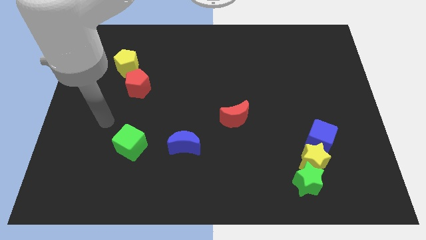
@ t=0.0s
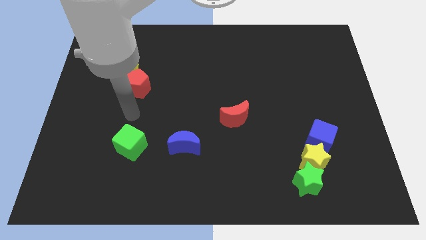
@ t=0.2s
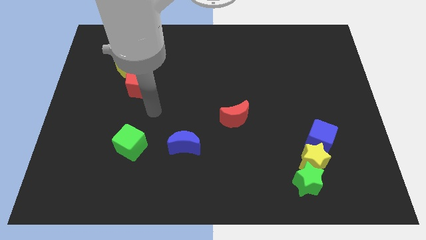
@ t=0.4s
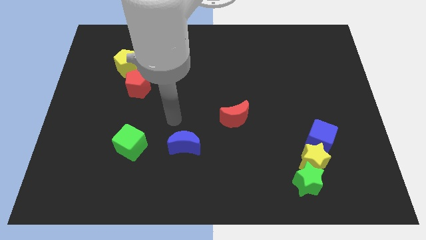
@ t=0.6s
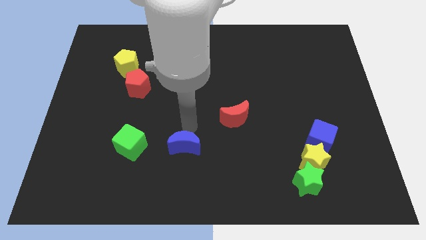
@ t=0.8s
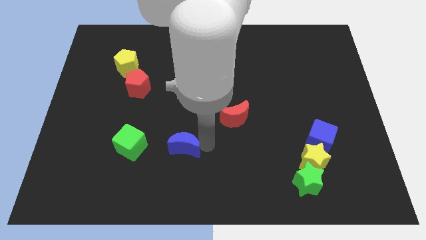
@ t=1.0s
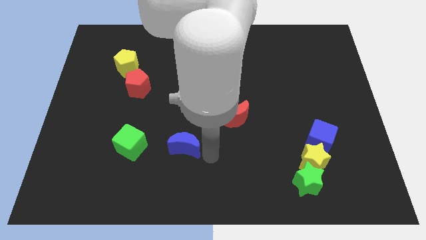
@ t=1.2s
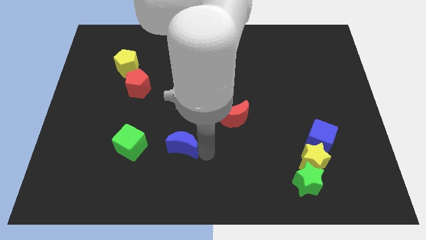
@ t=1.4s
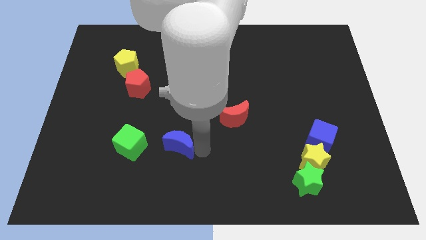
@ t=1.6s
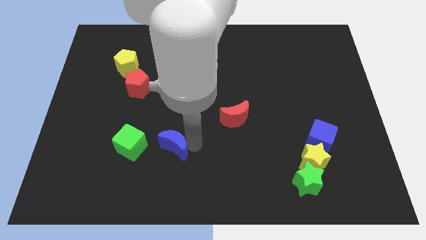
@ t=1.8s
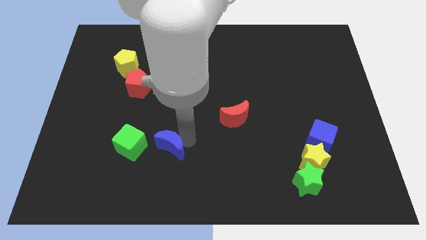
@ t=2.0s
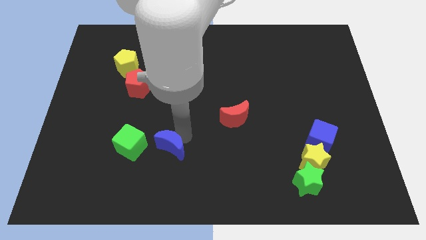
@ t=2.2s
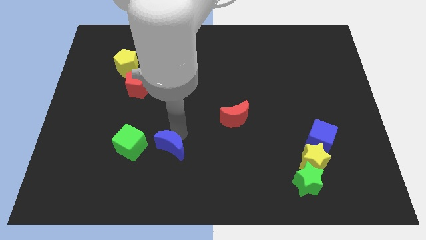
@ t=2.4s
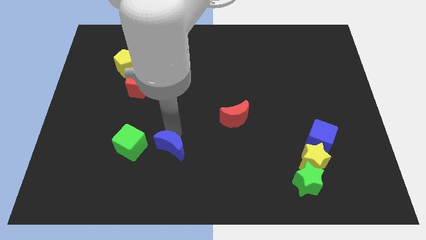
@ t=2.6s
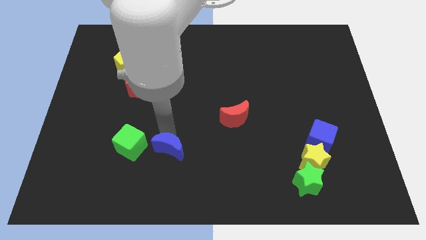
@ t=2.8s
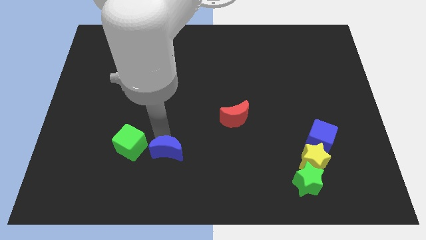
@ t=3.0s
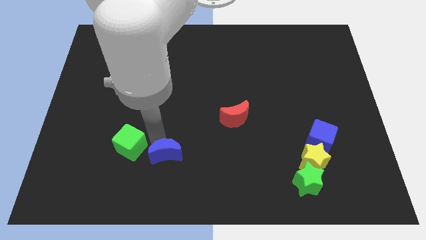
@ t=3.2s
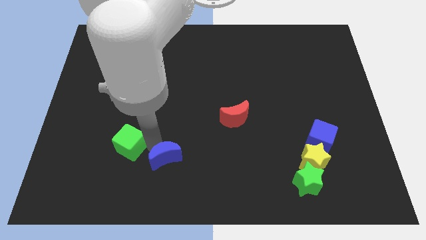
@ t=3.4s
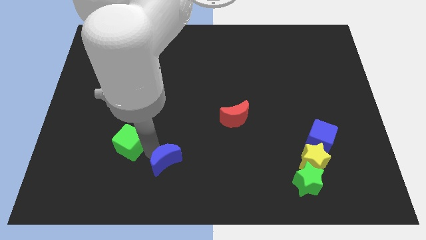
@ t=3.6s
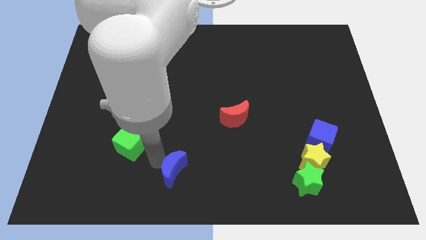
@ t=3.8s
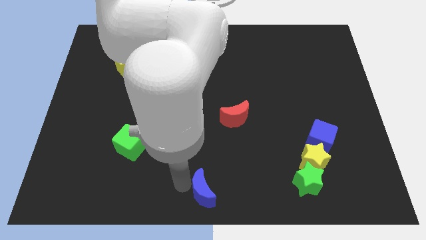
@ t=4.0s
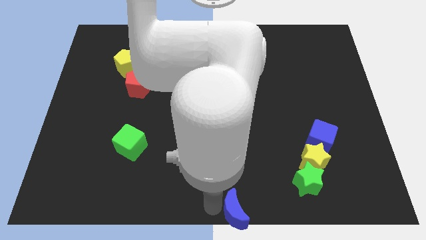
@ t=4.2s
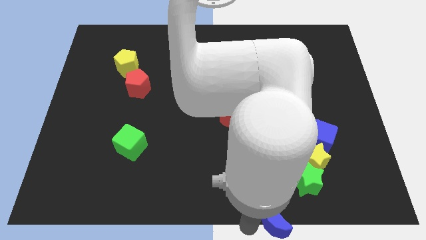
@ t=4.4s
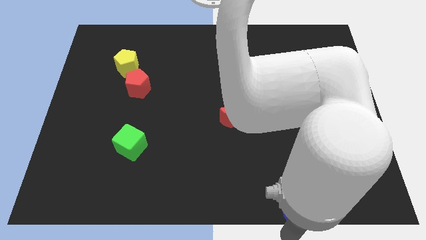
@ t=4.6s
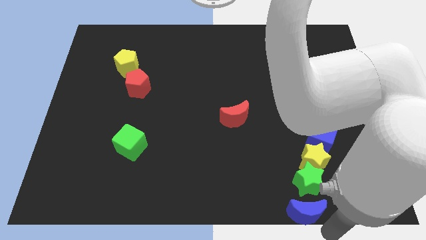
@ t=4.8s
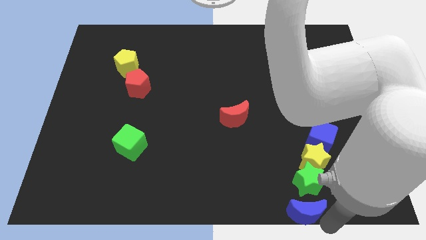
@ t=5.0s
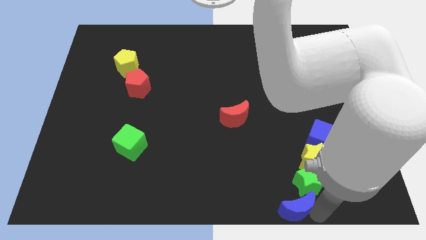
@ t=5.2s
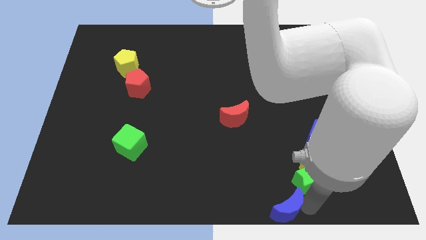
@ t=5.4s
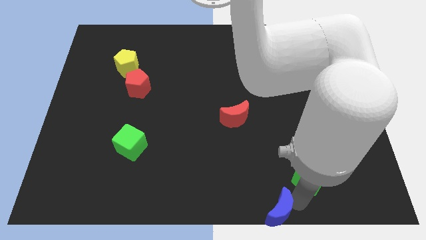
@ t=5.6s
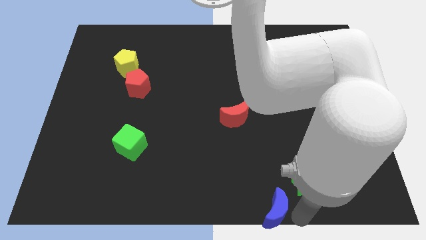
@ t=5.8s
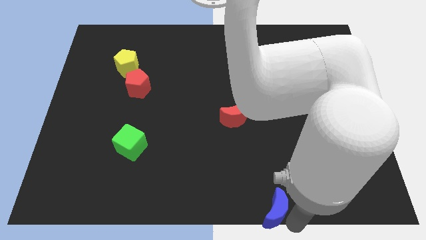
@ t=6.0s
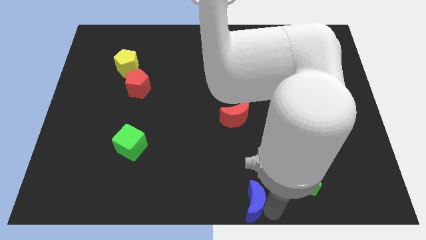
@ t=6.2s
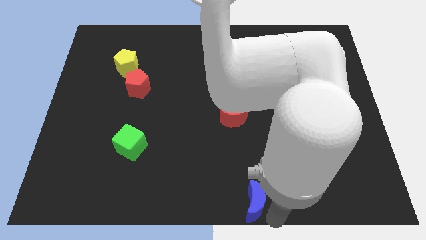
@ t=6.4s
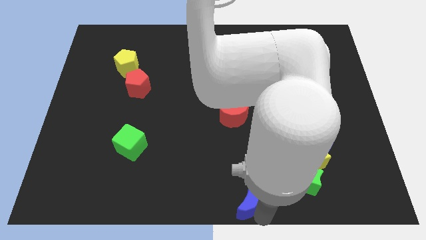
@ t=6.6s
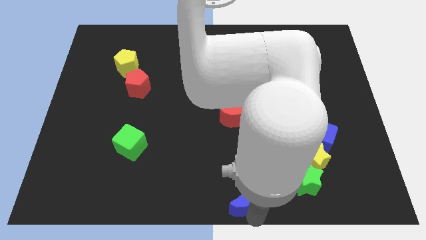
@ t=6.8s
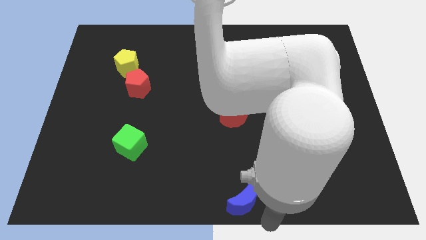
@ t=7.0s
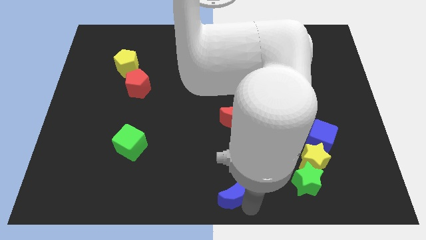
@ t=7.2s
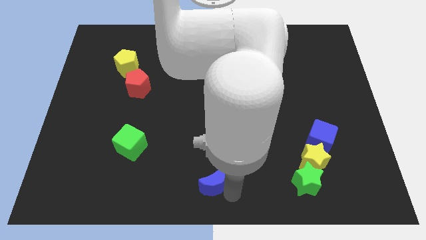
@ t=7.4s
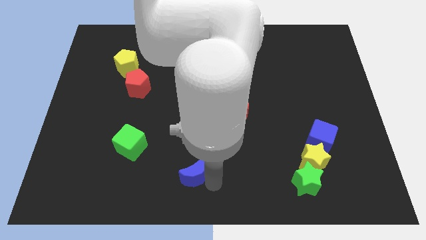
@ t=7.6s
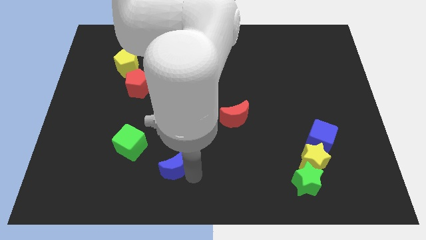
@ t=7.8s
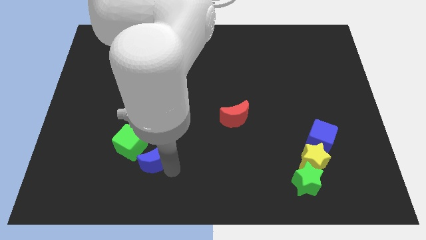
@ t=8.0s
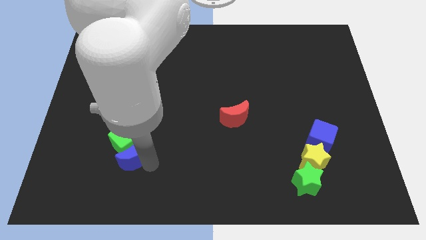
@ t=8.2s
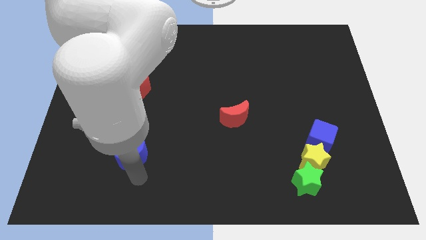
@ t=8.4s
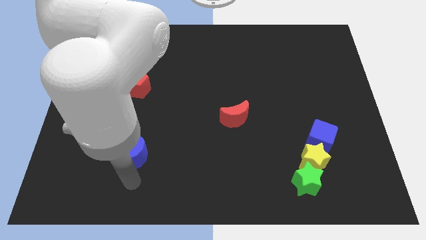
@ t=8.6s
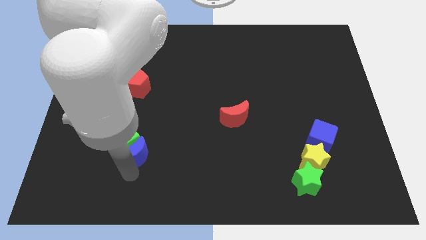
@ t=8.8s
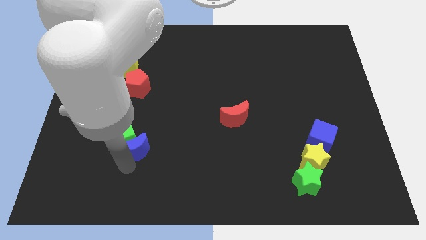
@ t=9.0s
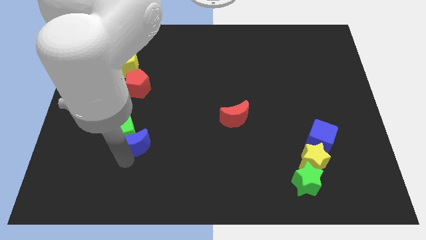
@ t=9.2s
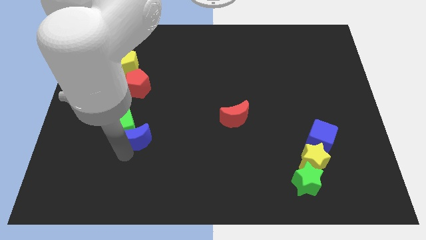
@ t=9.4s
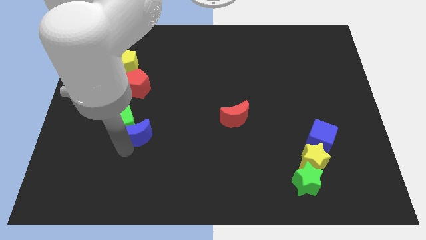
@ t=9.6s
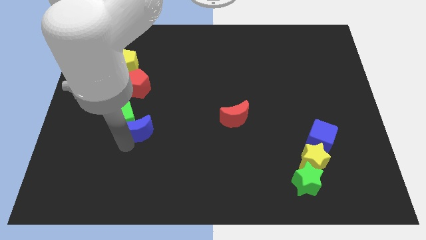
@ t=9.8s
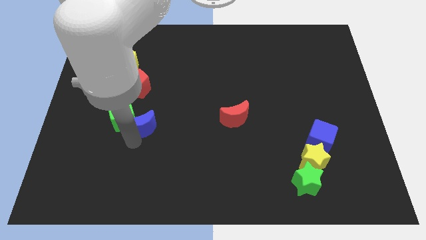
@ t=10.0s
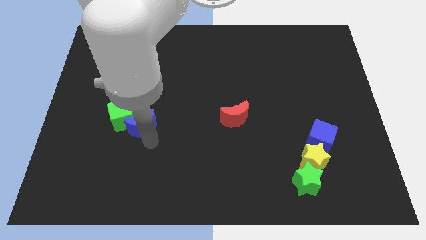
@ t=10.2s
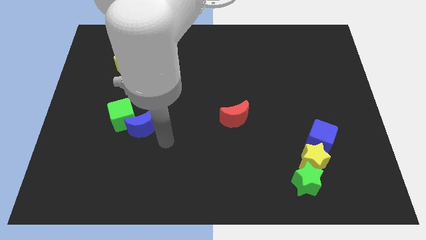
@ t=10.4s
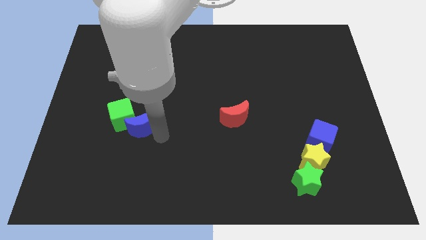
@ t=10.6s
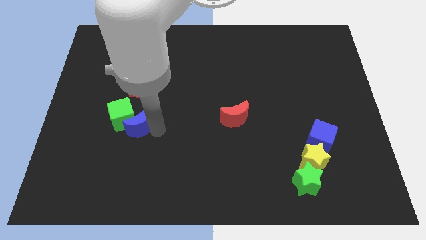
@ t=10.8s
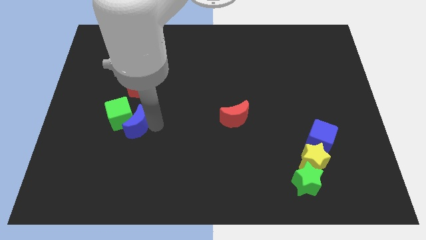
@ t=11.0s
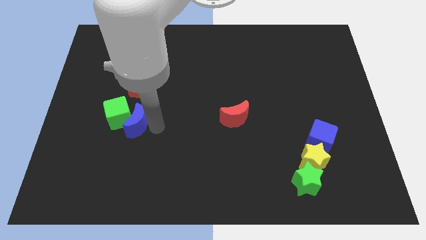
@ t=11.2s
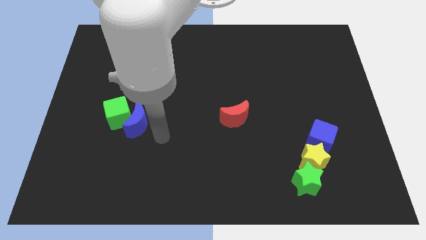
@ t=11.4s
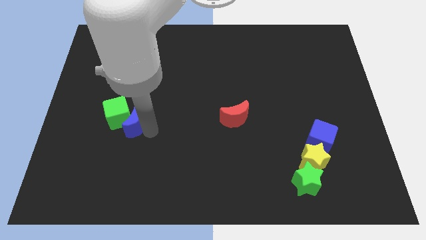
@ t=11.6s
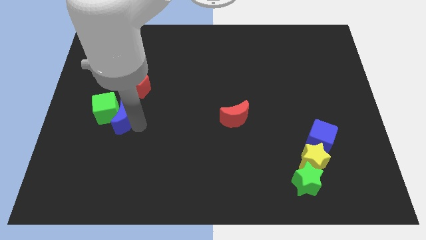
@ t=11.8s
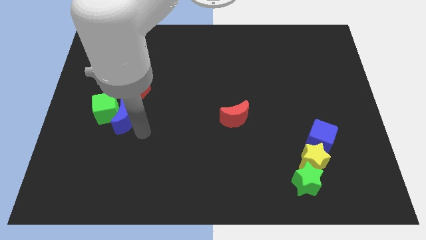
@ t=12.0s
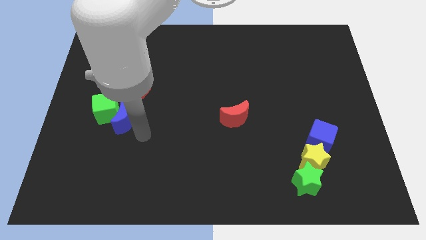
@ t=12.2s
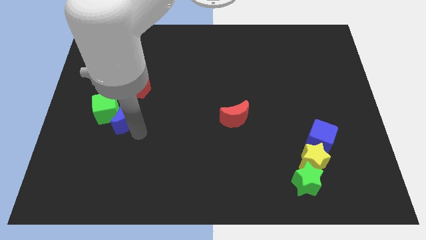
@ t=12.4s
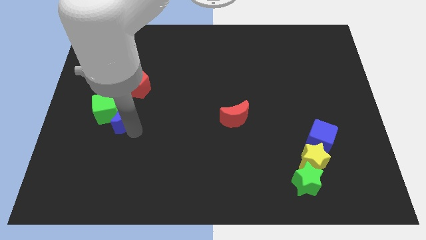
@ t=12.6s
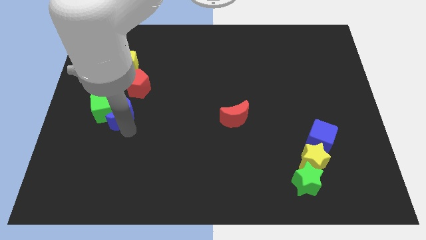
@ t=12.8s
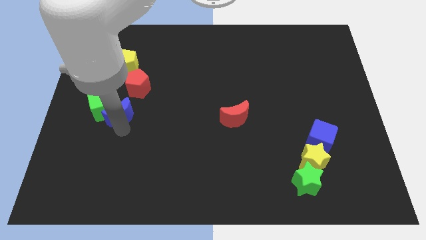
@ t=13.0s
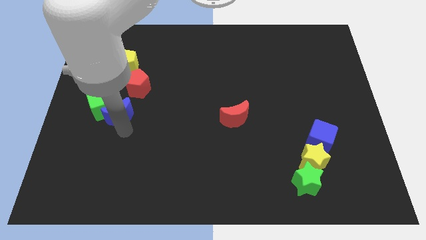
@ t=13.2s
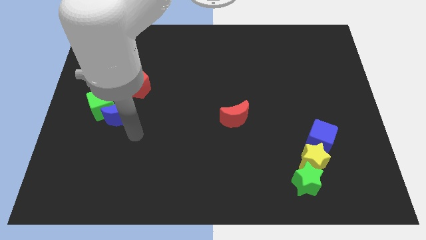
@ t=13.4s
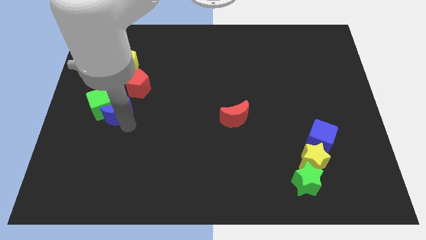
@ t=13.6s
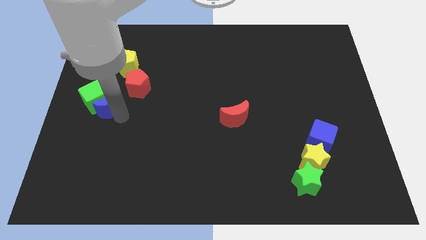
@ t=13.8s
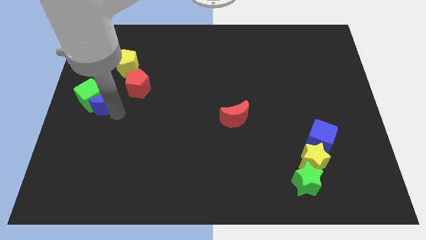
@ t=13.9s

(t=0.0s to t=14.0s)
move the blue moon diagonally upwards and left

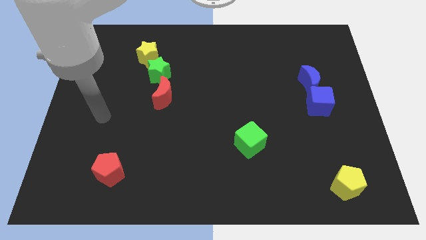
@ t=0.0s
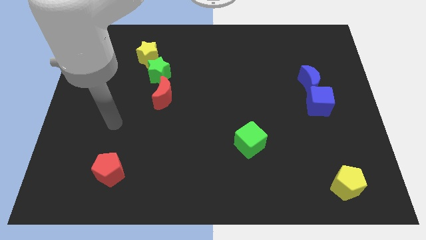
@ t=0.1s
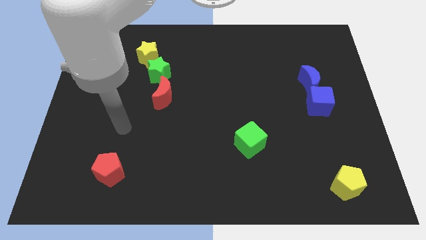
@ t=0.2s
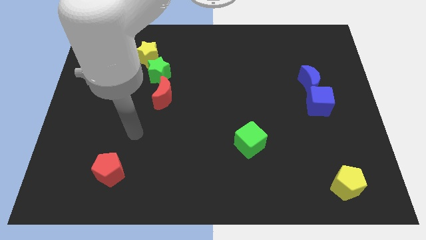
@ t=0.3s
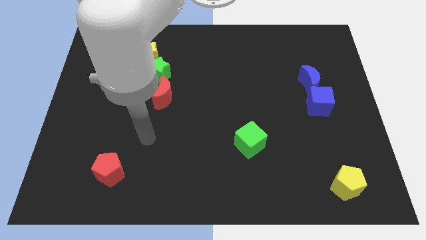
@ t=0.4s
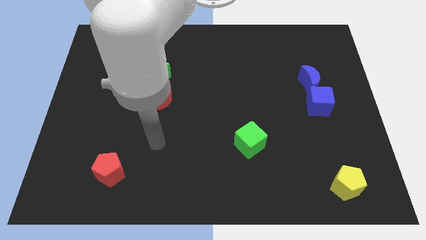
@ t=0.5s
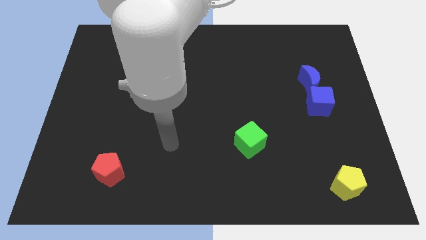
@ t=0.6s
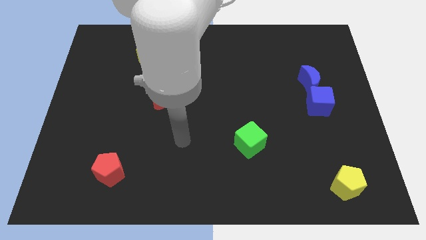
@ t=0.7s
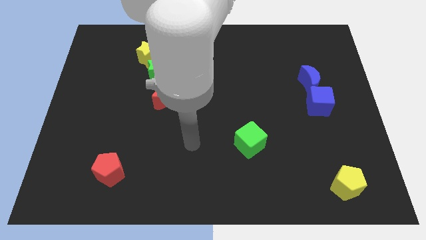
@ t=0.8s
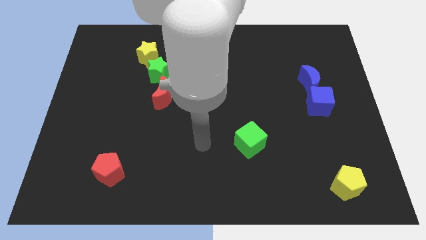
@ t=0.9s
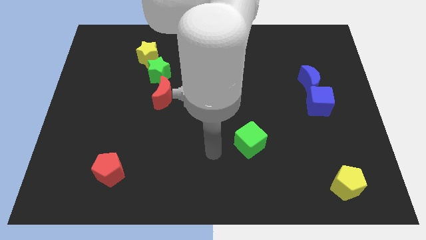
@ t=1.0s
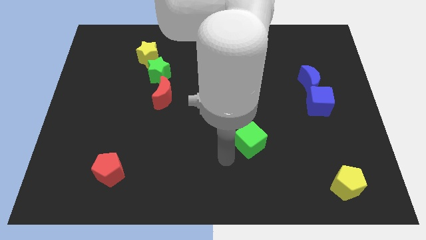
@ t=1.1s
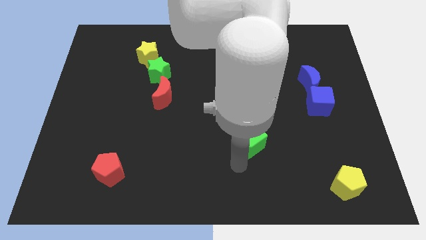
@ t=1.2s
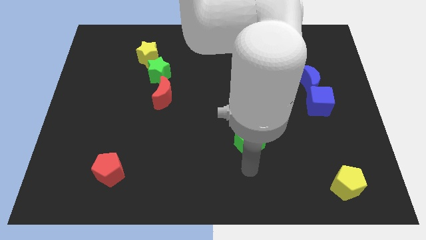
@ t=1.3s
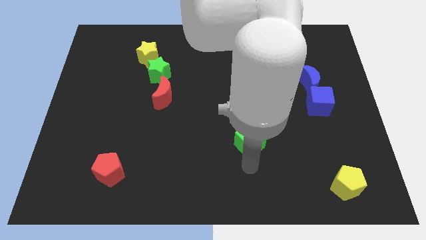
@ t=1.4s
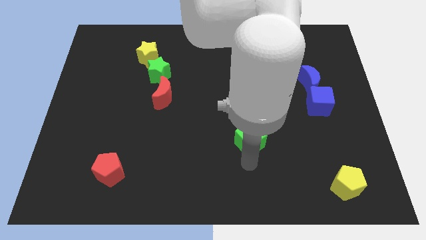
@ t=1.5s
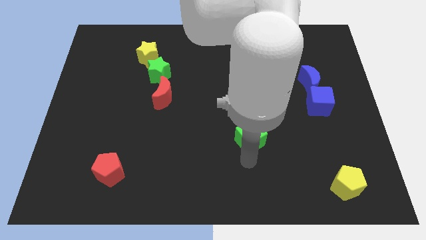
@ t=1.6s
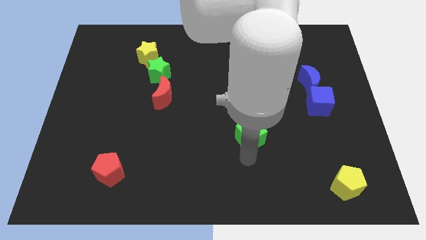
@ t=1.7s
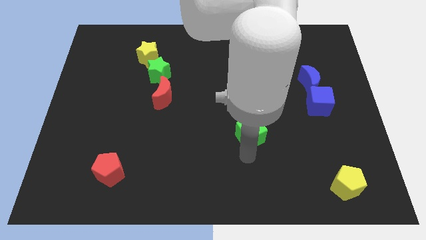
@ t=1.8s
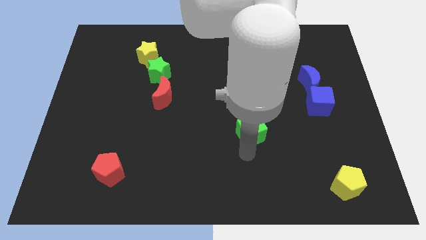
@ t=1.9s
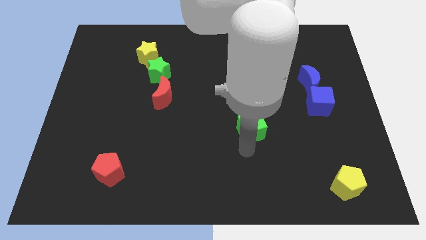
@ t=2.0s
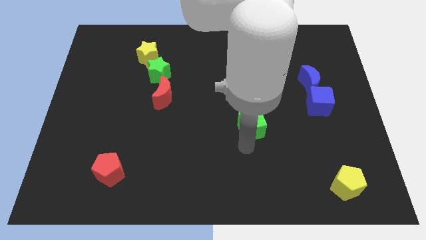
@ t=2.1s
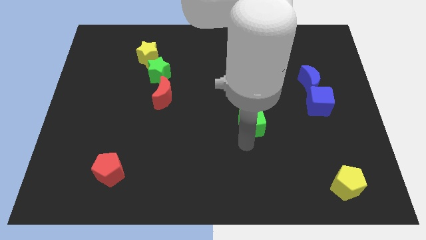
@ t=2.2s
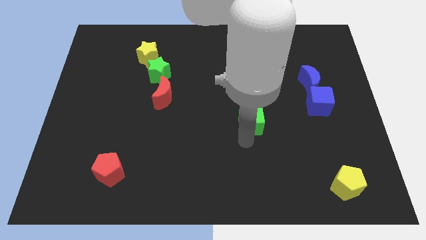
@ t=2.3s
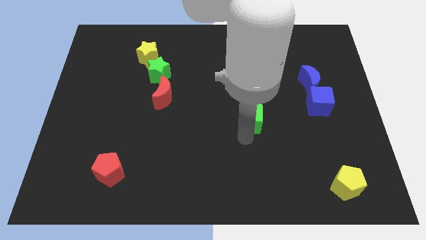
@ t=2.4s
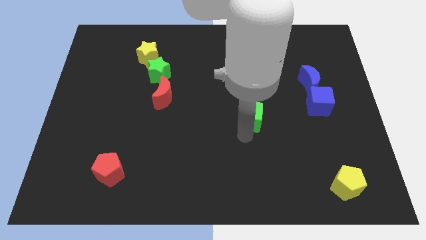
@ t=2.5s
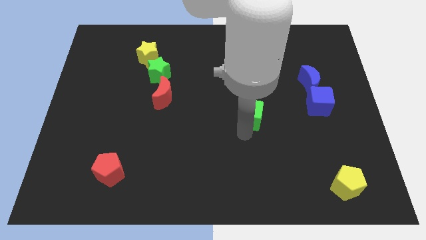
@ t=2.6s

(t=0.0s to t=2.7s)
push the green cube up a bit
